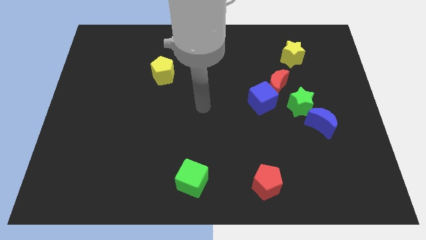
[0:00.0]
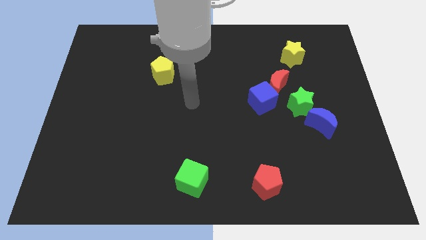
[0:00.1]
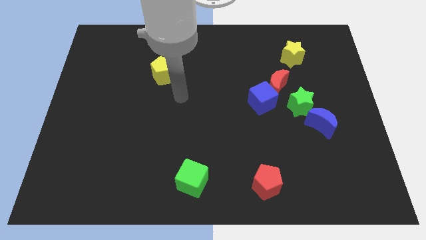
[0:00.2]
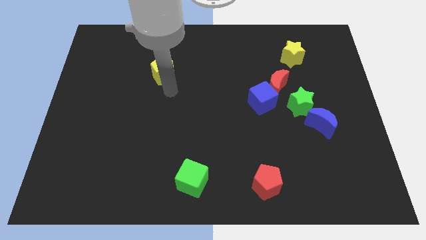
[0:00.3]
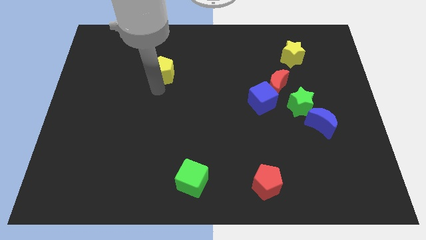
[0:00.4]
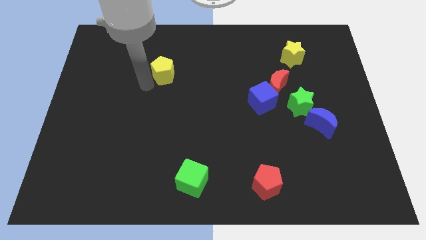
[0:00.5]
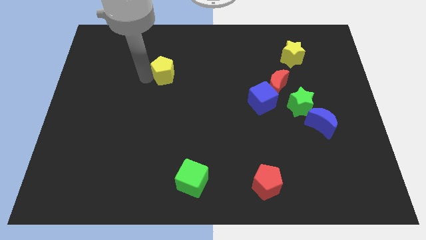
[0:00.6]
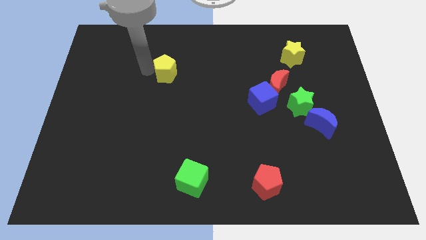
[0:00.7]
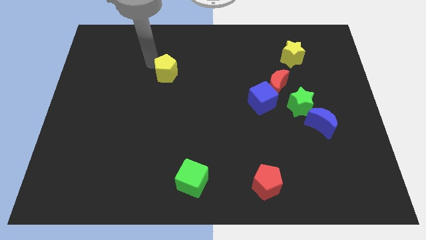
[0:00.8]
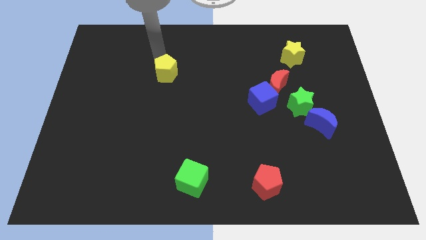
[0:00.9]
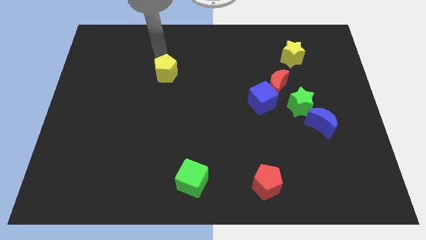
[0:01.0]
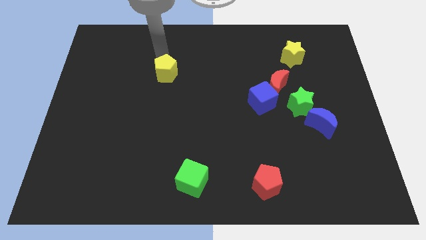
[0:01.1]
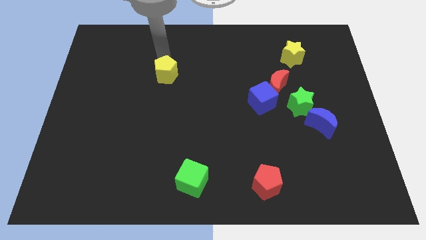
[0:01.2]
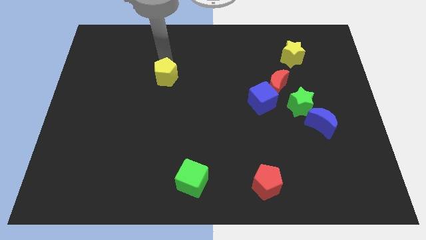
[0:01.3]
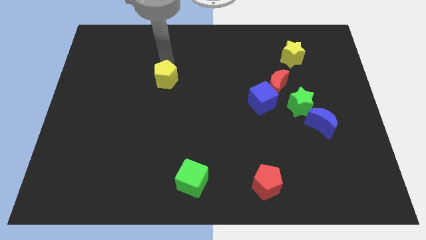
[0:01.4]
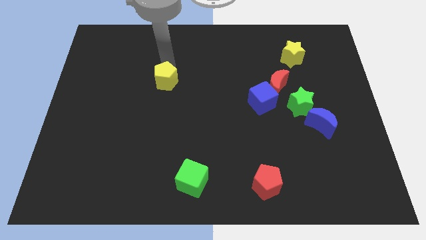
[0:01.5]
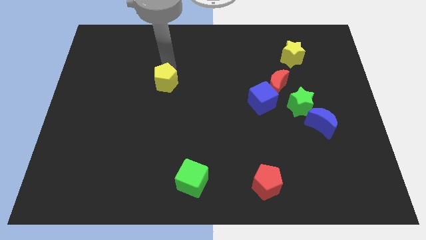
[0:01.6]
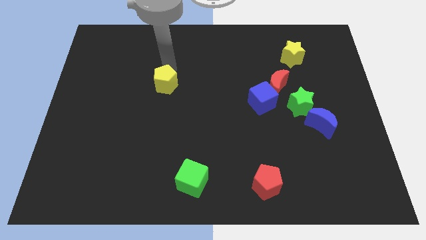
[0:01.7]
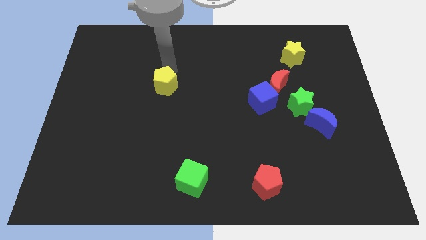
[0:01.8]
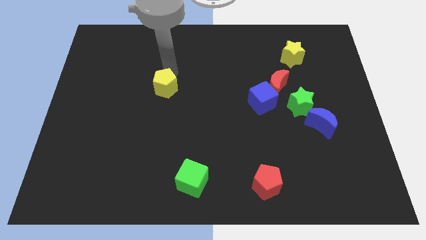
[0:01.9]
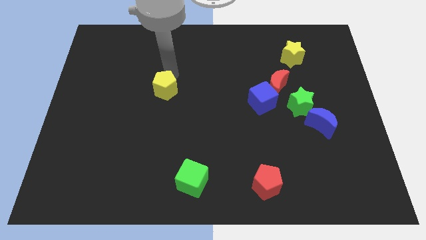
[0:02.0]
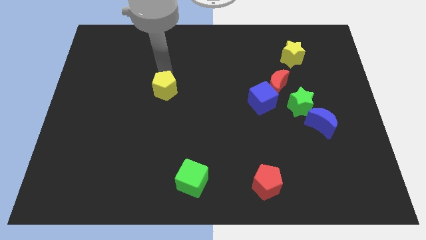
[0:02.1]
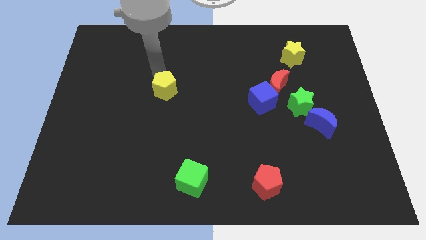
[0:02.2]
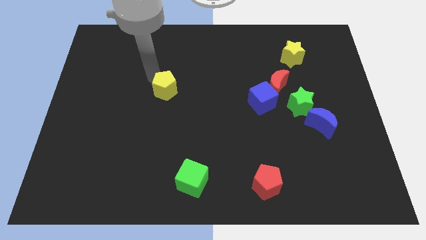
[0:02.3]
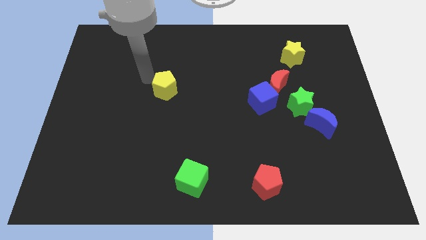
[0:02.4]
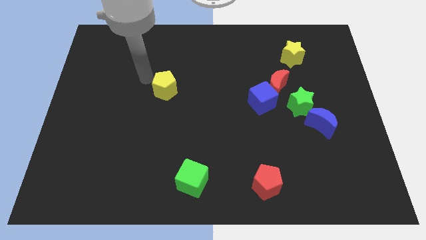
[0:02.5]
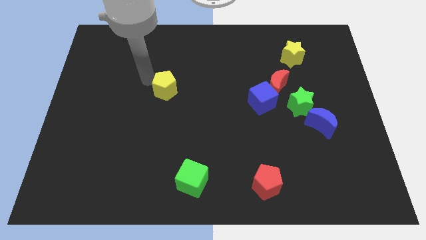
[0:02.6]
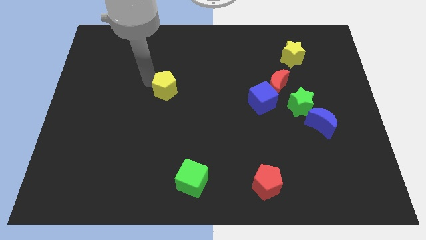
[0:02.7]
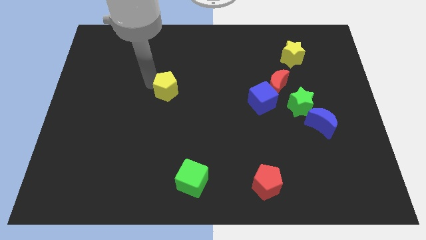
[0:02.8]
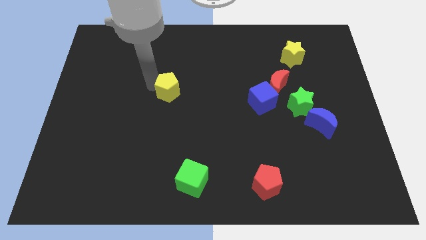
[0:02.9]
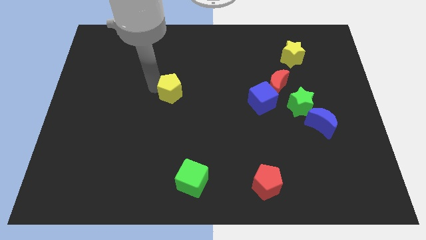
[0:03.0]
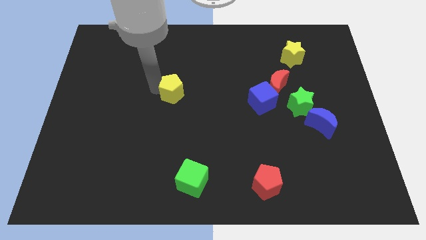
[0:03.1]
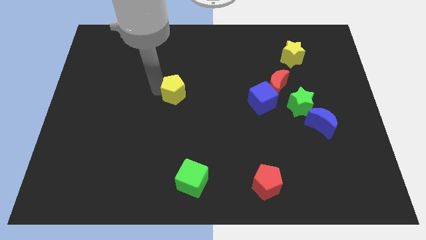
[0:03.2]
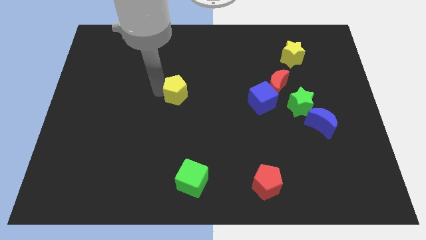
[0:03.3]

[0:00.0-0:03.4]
move the yellow pentagon a little down and then right

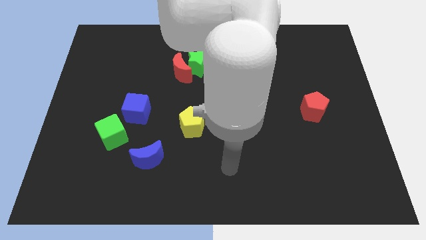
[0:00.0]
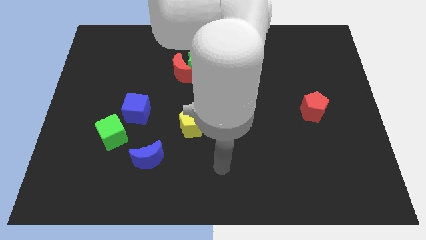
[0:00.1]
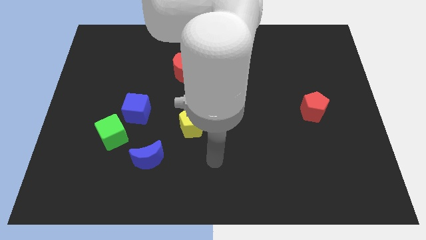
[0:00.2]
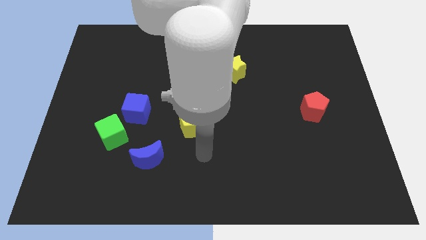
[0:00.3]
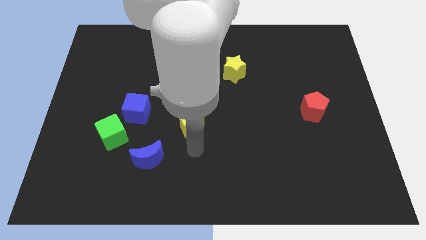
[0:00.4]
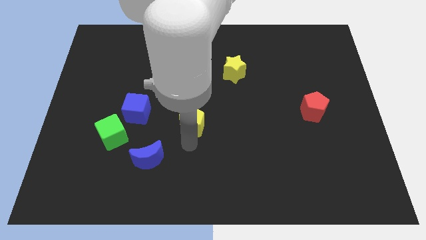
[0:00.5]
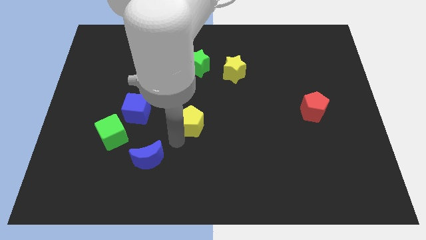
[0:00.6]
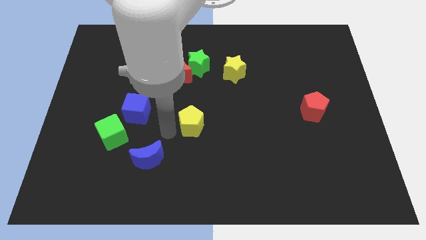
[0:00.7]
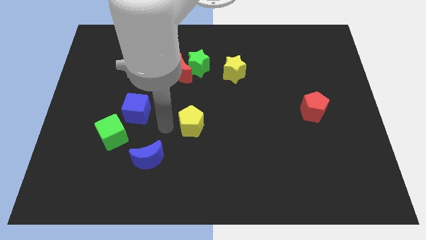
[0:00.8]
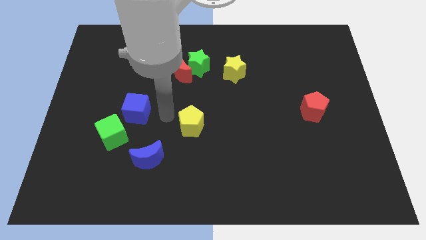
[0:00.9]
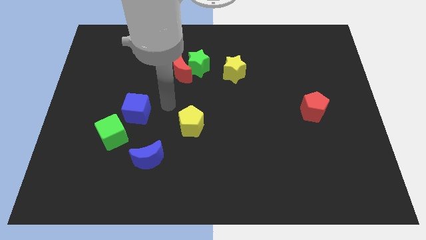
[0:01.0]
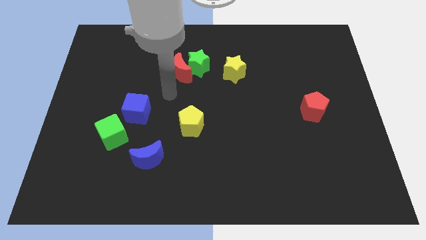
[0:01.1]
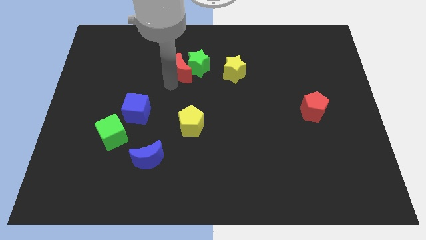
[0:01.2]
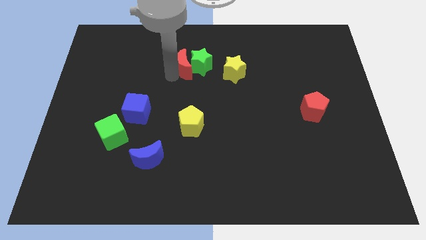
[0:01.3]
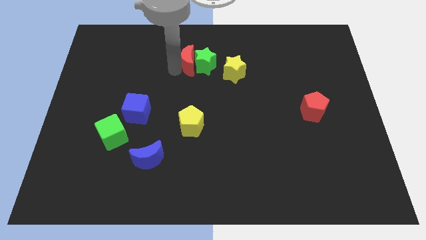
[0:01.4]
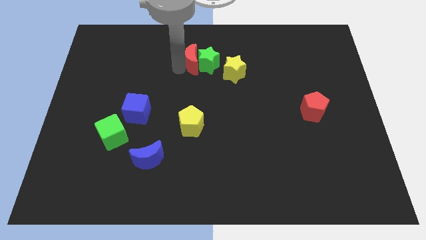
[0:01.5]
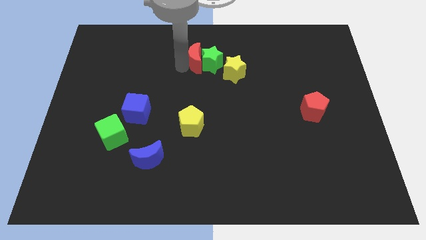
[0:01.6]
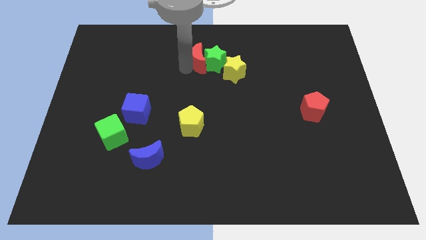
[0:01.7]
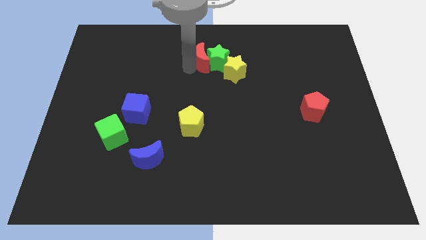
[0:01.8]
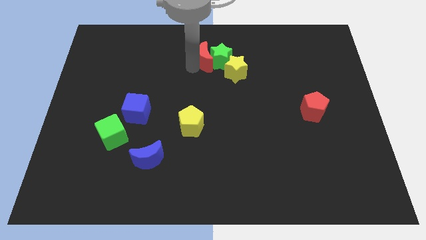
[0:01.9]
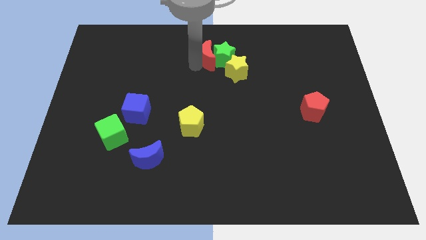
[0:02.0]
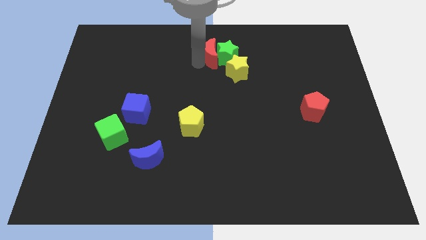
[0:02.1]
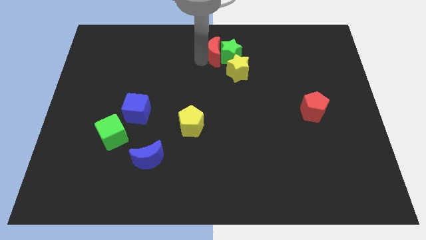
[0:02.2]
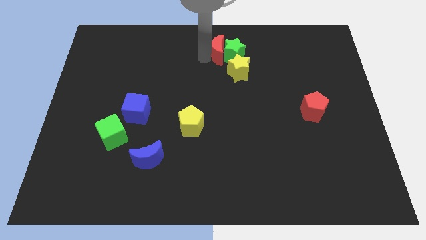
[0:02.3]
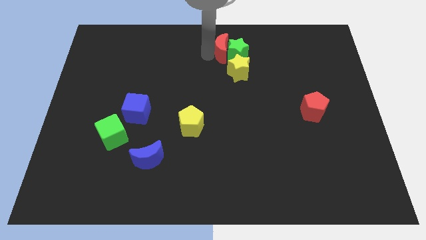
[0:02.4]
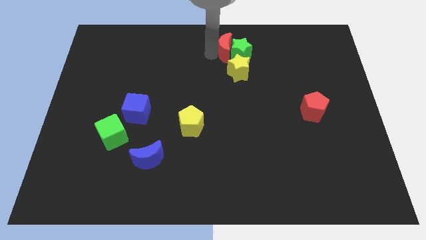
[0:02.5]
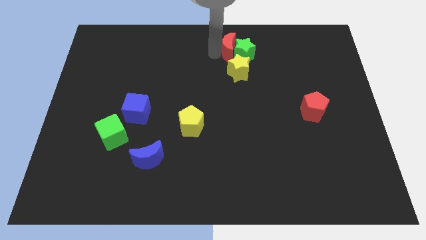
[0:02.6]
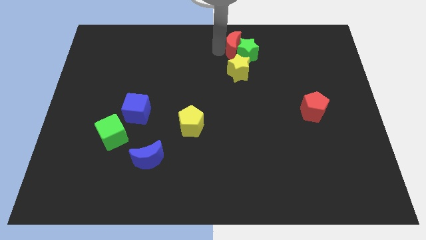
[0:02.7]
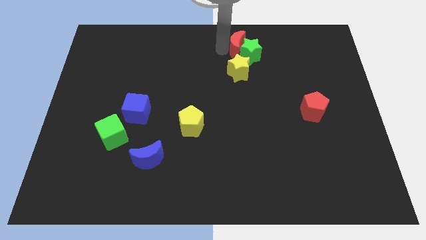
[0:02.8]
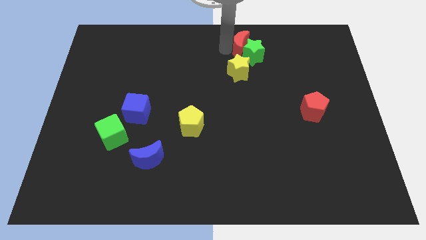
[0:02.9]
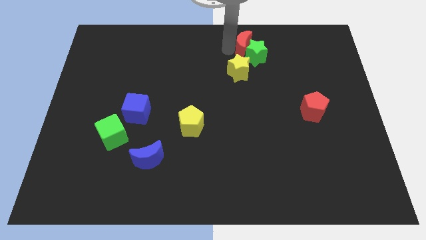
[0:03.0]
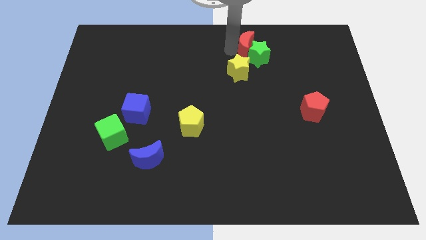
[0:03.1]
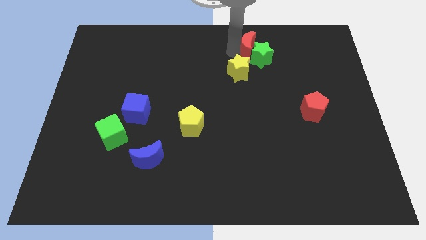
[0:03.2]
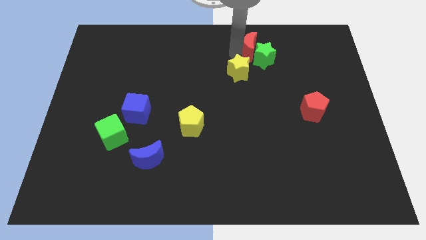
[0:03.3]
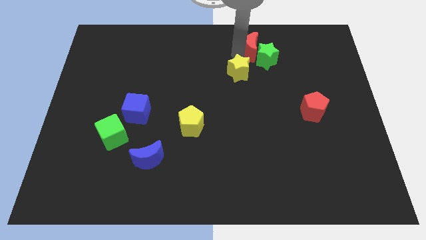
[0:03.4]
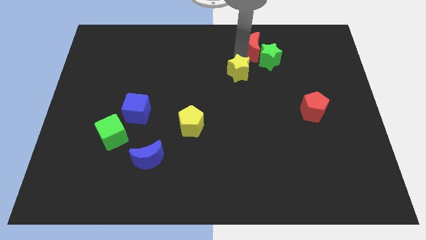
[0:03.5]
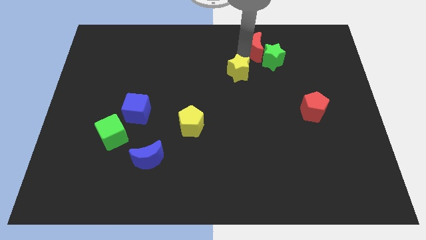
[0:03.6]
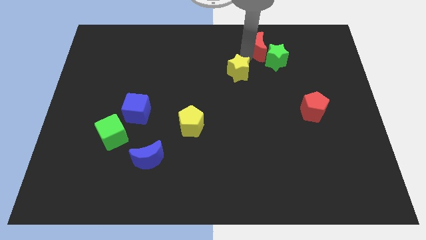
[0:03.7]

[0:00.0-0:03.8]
push the green star to the right

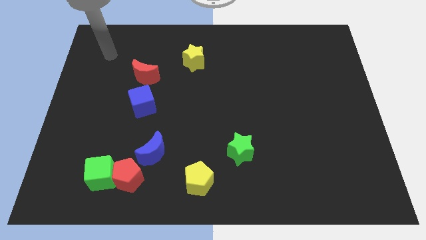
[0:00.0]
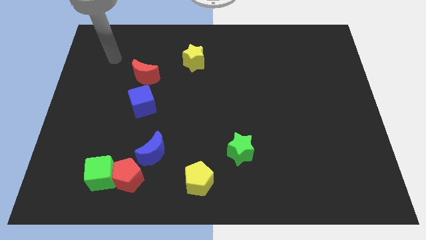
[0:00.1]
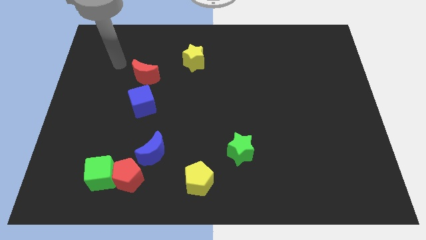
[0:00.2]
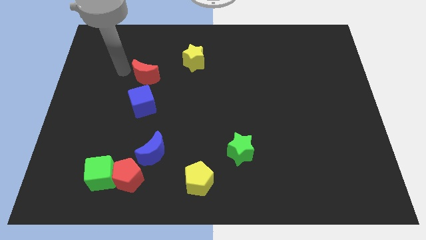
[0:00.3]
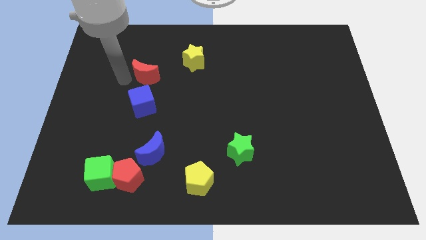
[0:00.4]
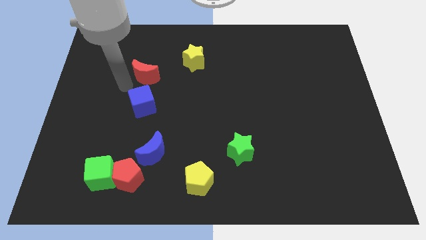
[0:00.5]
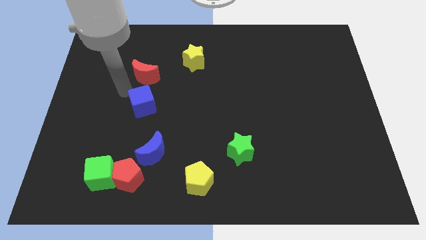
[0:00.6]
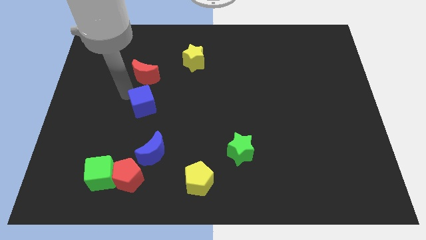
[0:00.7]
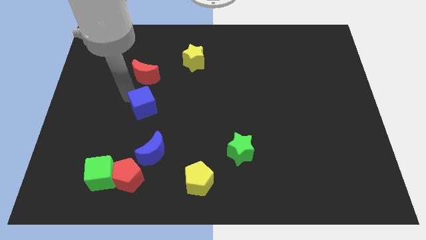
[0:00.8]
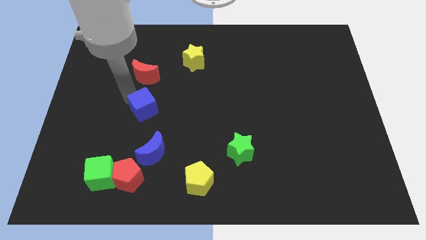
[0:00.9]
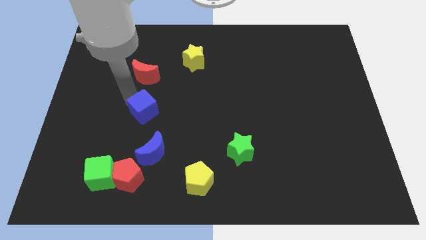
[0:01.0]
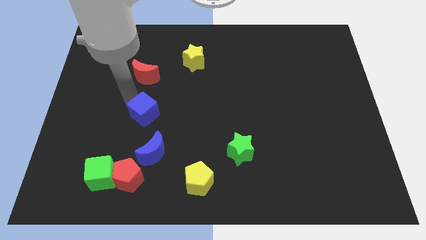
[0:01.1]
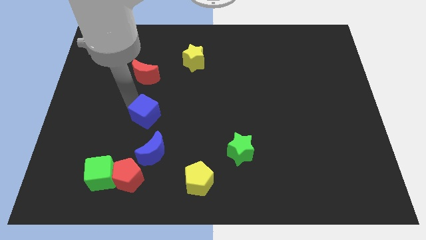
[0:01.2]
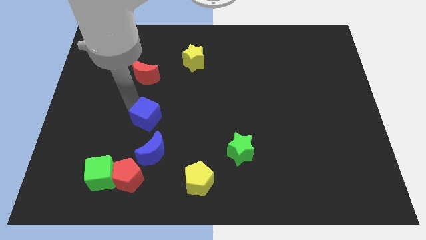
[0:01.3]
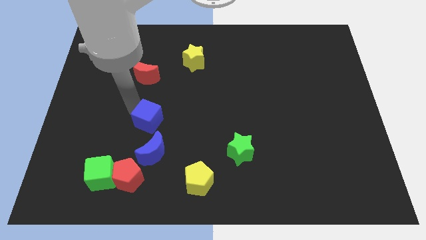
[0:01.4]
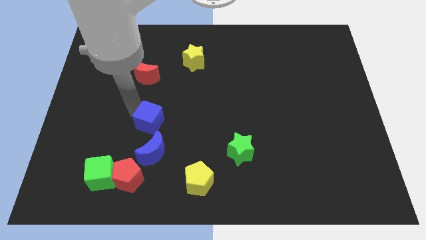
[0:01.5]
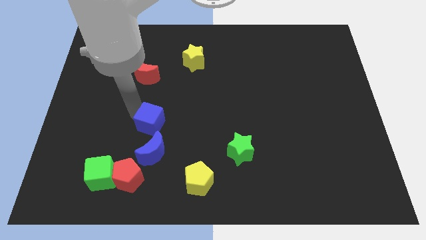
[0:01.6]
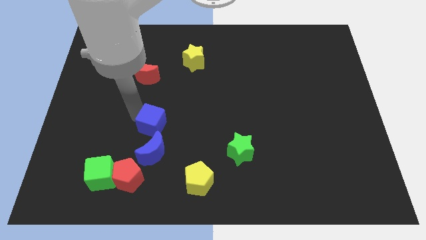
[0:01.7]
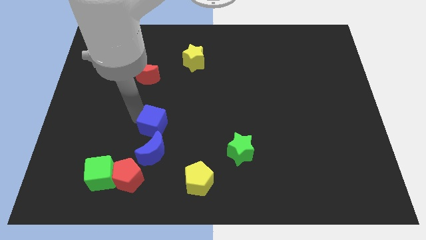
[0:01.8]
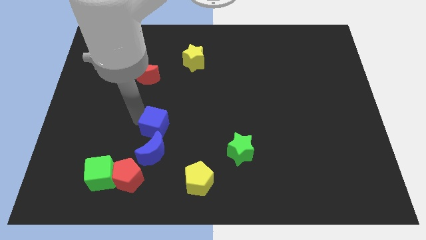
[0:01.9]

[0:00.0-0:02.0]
push the blue cube a little downwards and right
